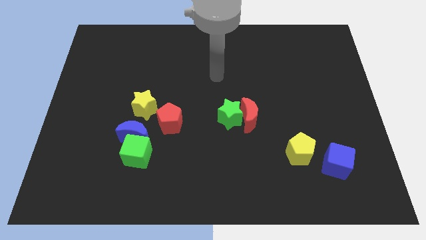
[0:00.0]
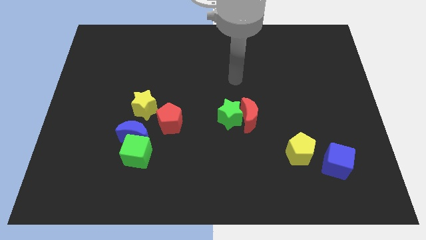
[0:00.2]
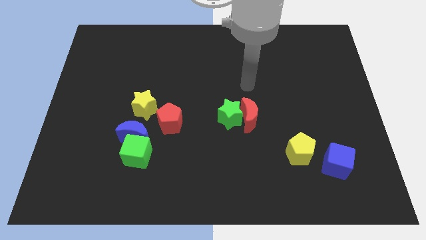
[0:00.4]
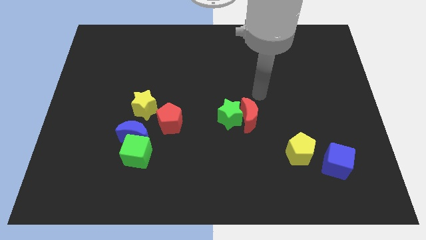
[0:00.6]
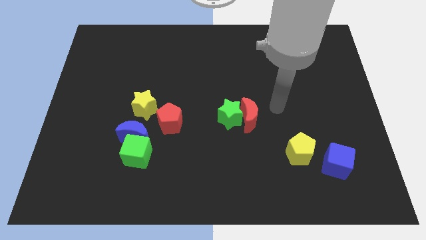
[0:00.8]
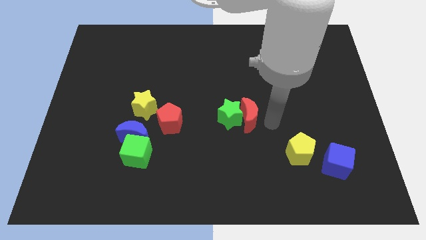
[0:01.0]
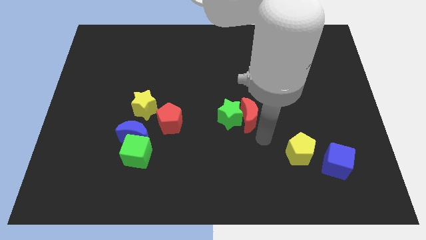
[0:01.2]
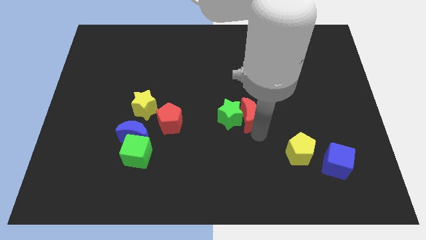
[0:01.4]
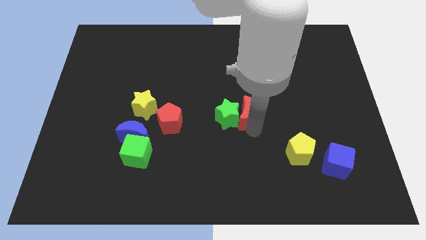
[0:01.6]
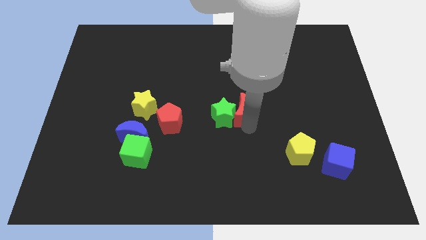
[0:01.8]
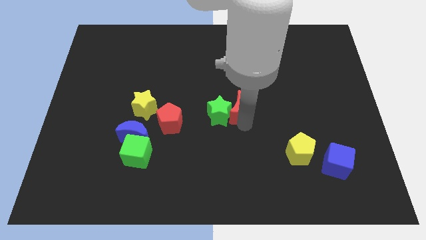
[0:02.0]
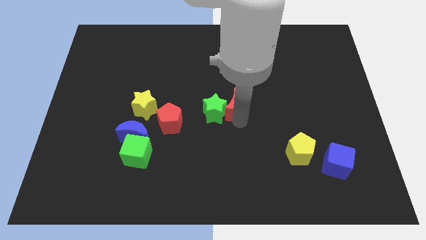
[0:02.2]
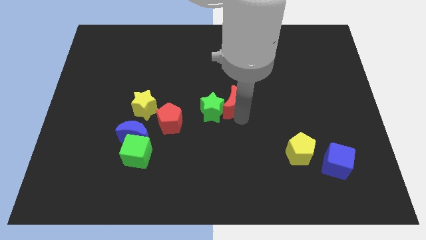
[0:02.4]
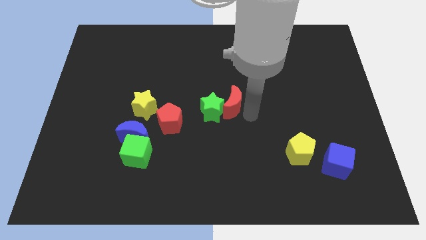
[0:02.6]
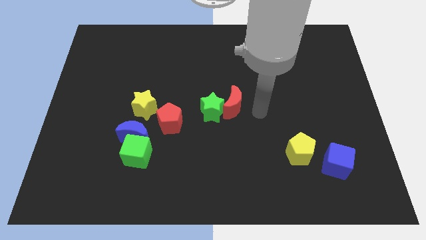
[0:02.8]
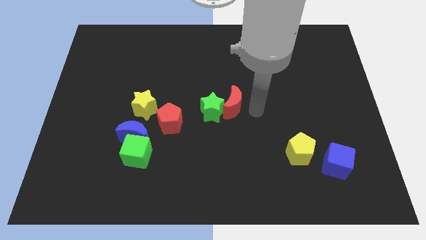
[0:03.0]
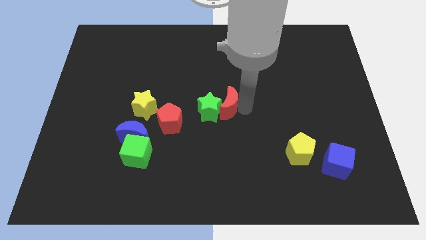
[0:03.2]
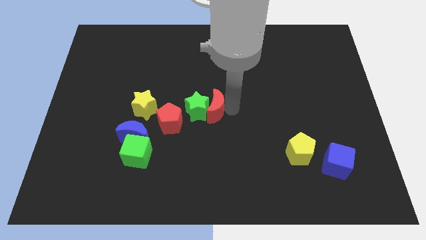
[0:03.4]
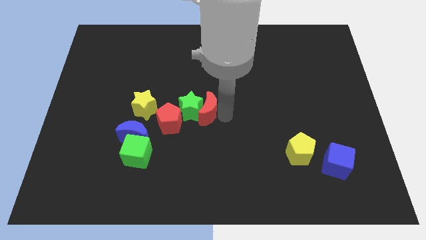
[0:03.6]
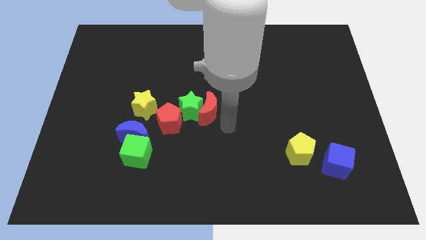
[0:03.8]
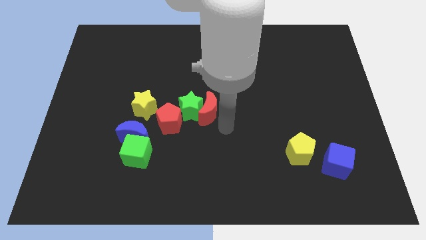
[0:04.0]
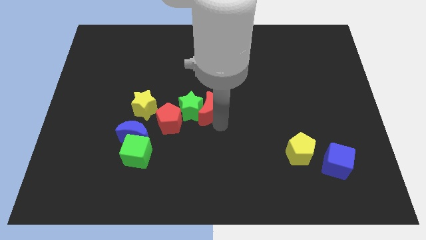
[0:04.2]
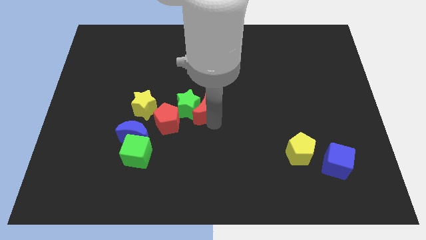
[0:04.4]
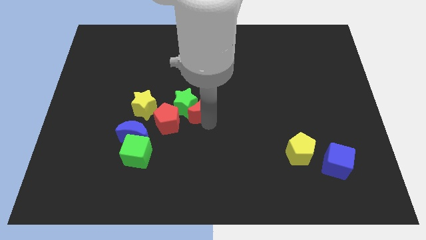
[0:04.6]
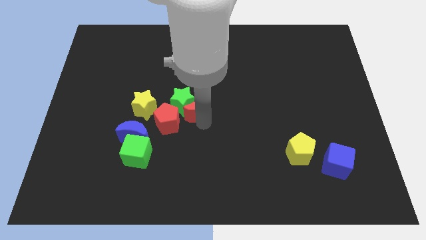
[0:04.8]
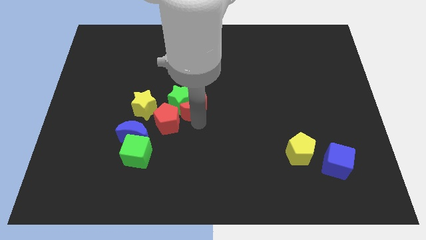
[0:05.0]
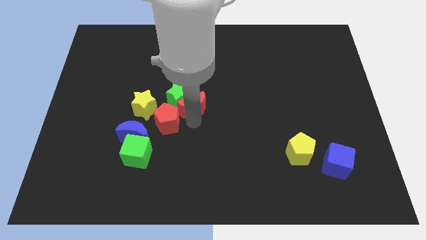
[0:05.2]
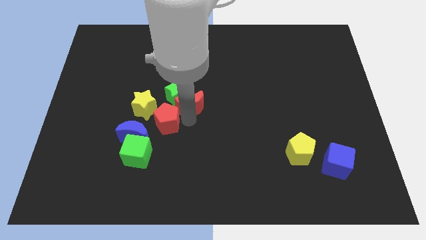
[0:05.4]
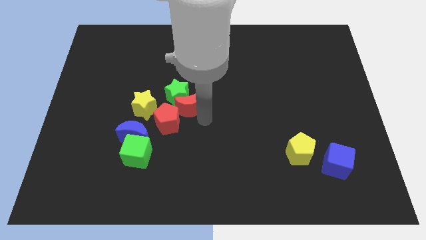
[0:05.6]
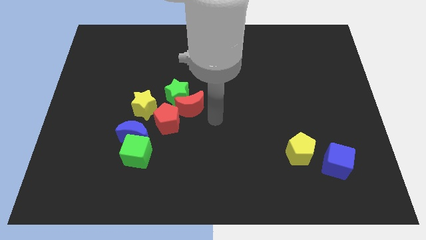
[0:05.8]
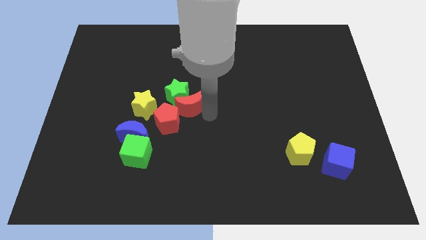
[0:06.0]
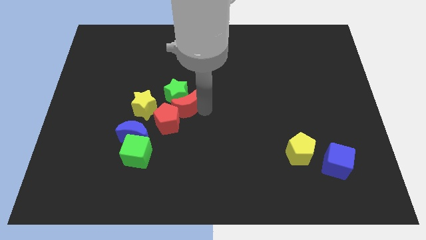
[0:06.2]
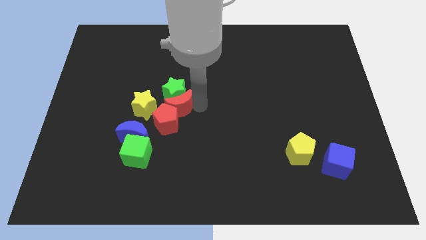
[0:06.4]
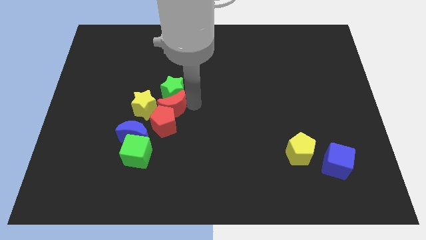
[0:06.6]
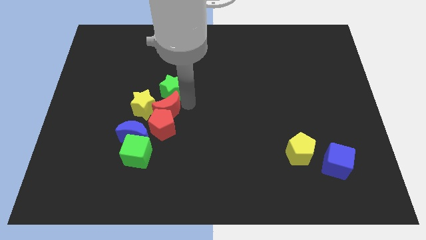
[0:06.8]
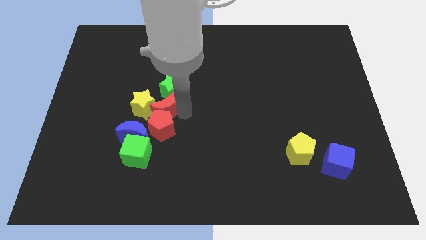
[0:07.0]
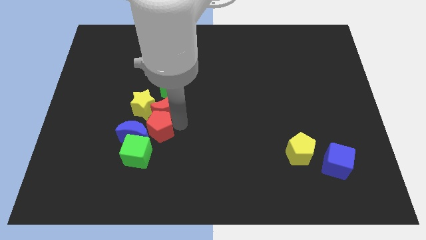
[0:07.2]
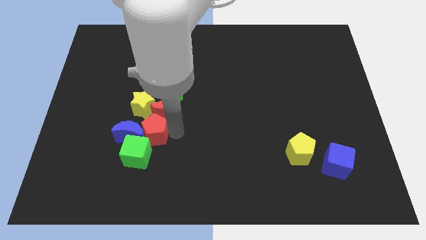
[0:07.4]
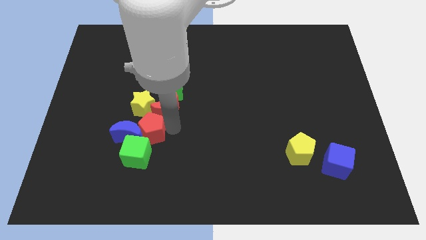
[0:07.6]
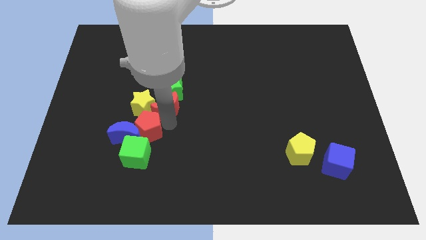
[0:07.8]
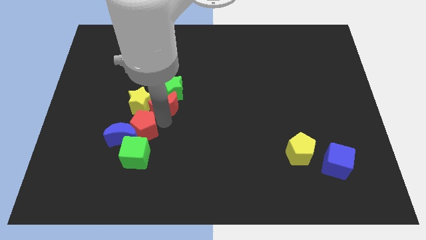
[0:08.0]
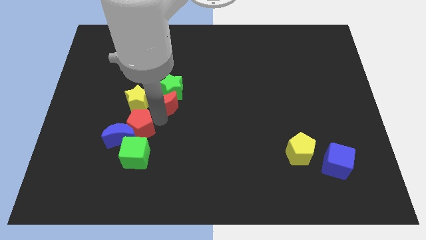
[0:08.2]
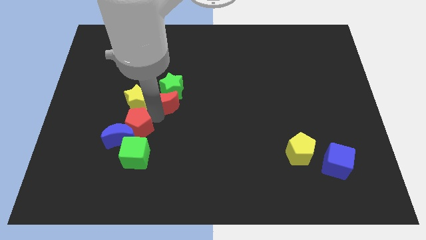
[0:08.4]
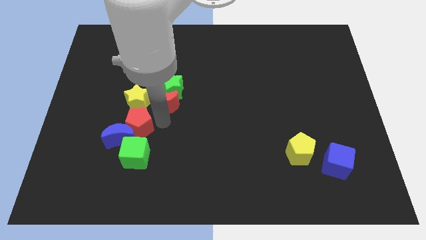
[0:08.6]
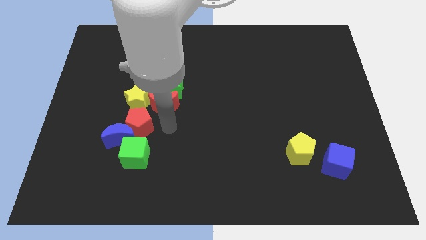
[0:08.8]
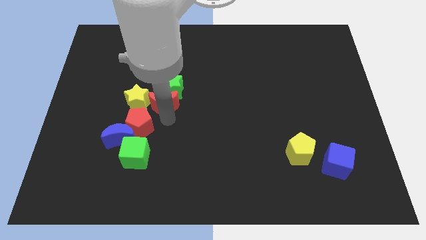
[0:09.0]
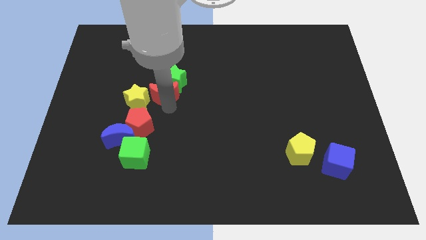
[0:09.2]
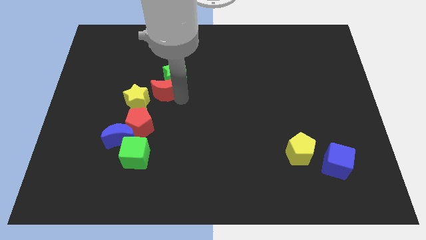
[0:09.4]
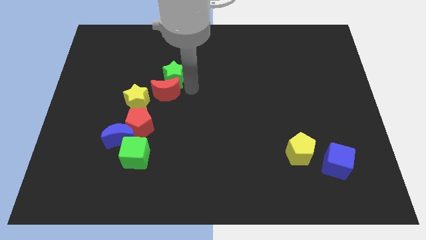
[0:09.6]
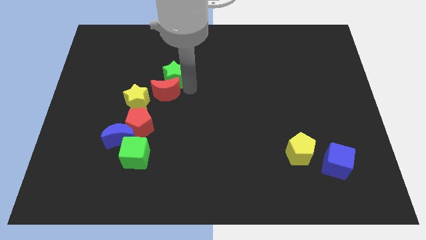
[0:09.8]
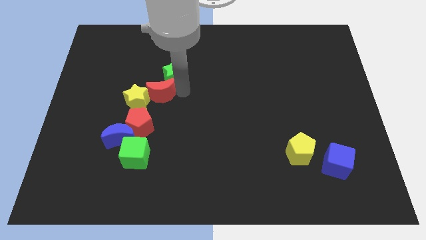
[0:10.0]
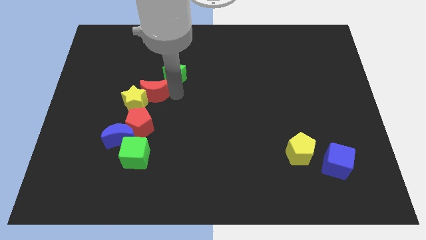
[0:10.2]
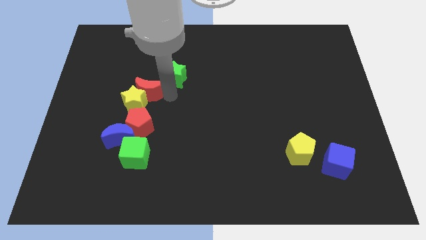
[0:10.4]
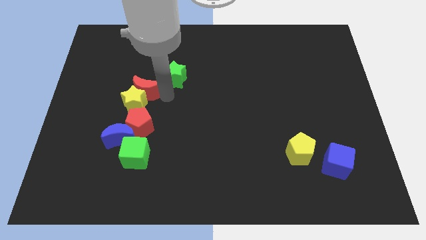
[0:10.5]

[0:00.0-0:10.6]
put the red moon to the top side of the blue moon

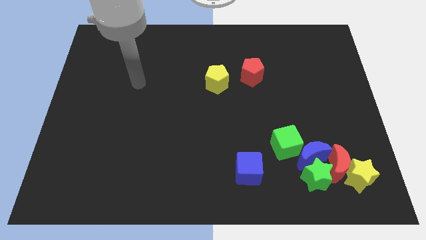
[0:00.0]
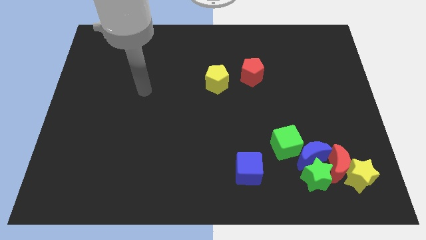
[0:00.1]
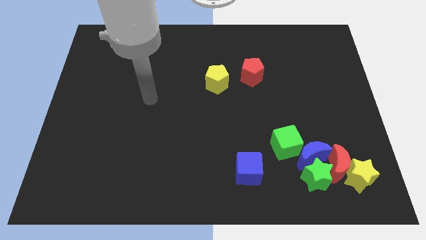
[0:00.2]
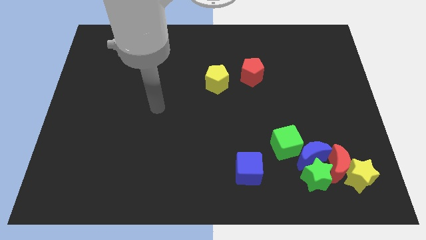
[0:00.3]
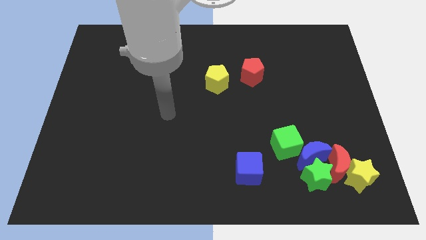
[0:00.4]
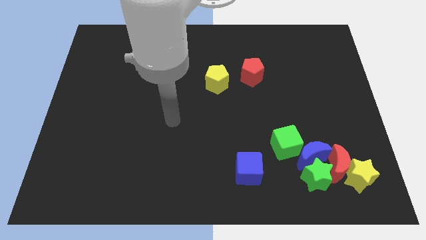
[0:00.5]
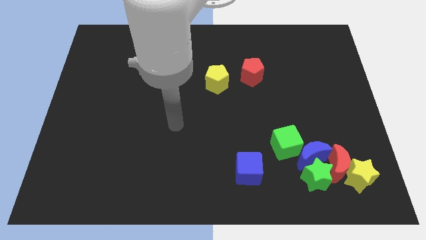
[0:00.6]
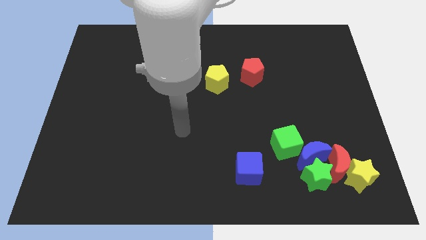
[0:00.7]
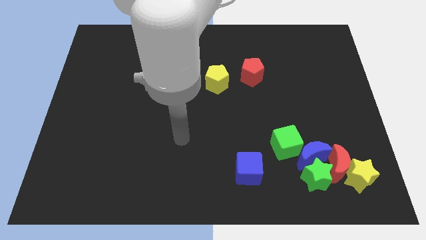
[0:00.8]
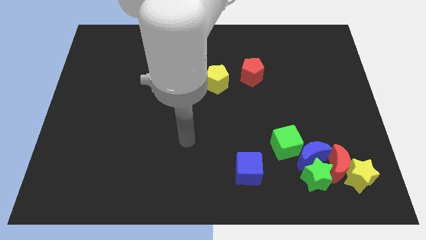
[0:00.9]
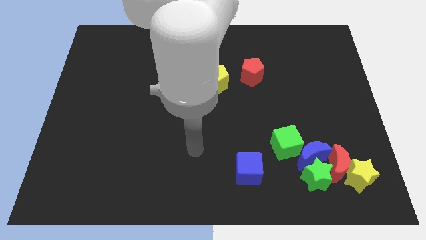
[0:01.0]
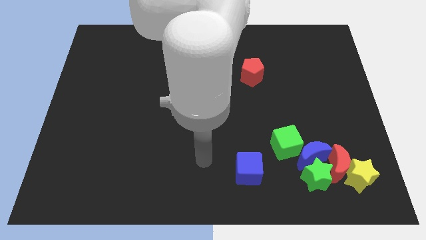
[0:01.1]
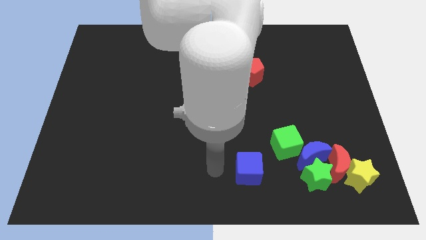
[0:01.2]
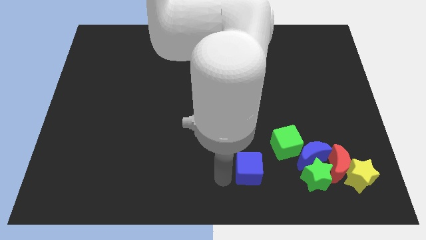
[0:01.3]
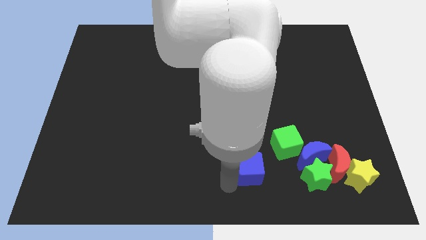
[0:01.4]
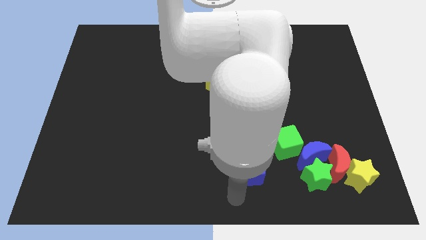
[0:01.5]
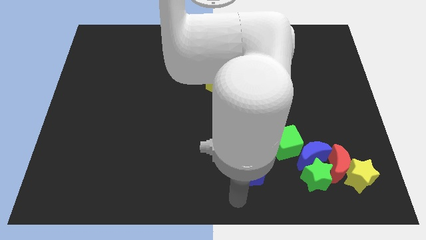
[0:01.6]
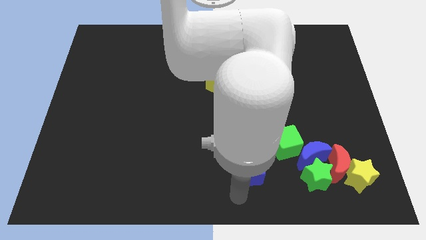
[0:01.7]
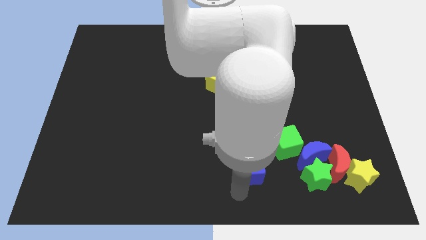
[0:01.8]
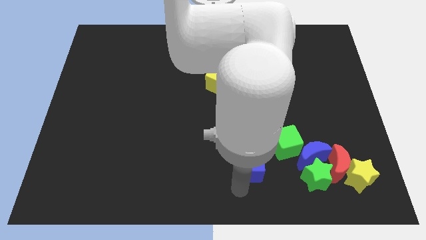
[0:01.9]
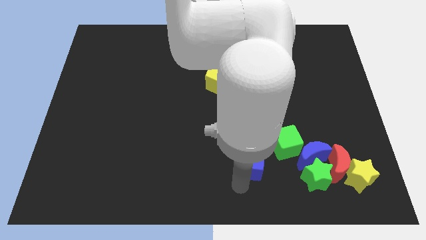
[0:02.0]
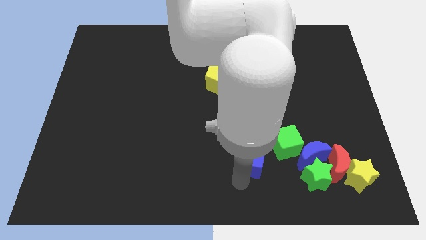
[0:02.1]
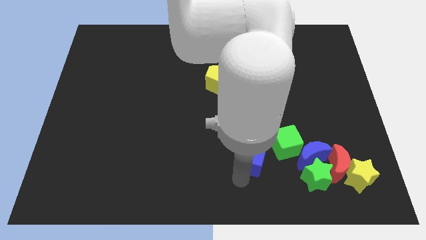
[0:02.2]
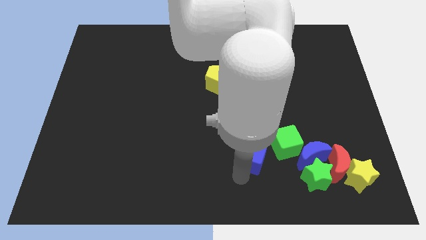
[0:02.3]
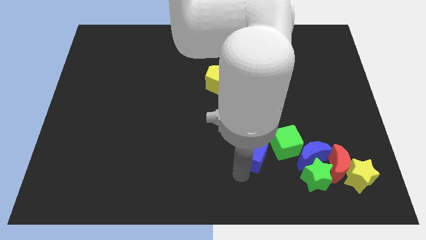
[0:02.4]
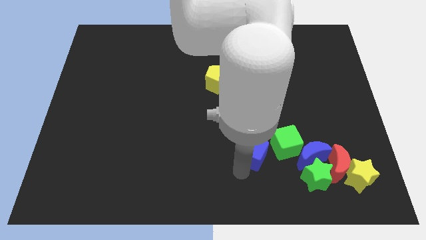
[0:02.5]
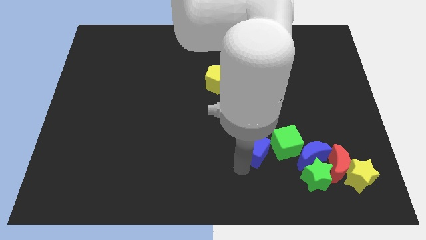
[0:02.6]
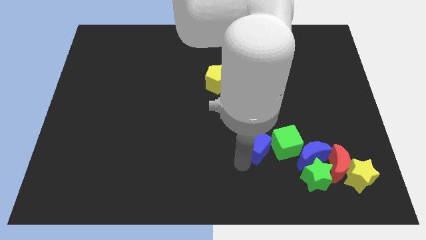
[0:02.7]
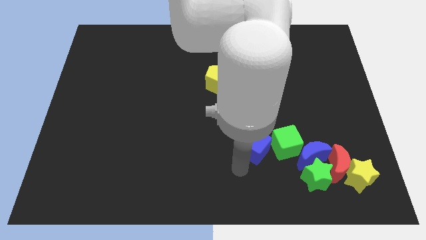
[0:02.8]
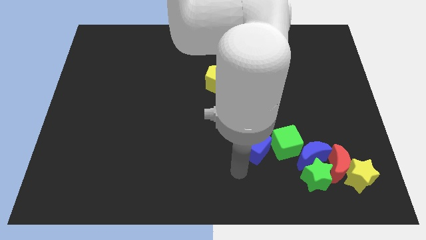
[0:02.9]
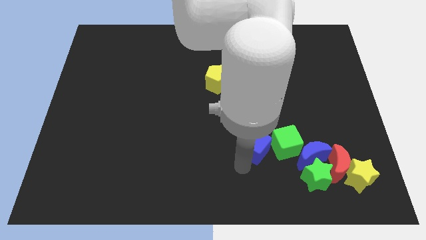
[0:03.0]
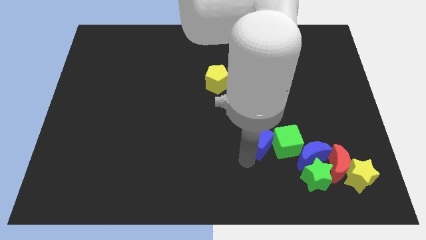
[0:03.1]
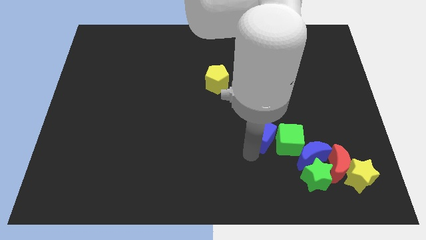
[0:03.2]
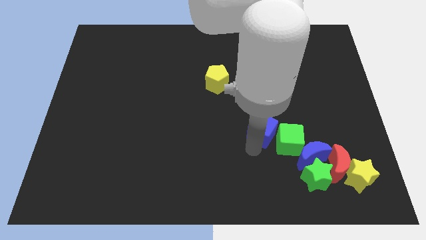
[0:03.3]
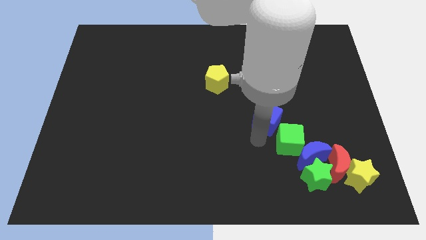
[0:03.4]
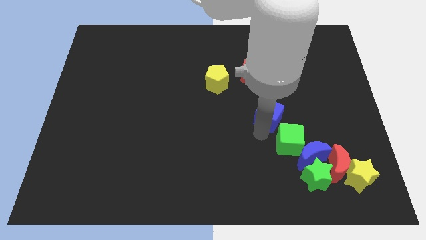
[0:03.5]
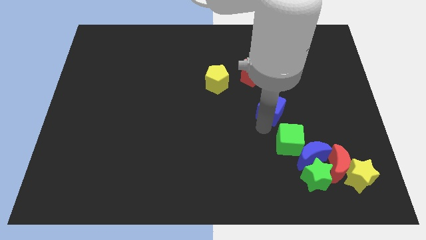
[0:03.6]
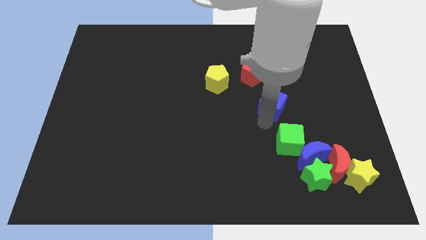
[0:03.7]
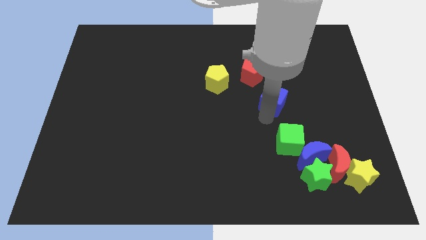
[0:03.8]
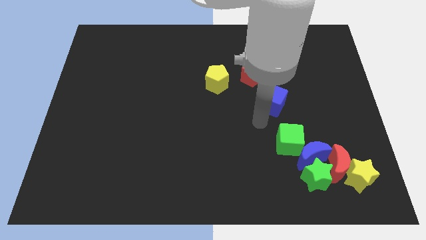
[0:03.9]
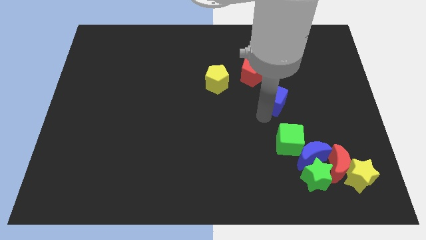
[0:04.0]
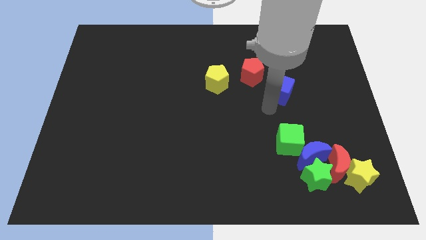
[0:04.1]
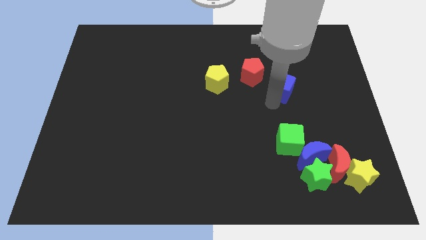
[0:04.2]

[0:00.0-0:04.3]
slide the blue cube to the right side of the red pentagon
